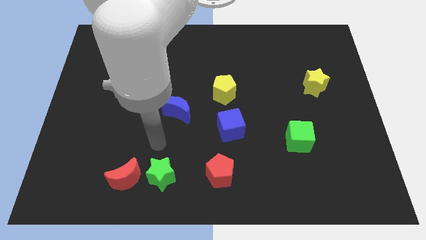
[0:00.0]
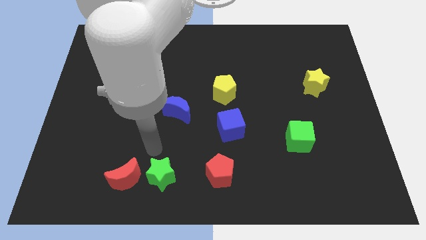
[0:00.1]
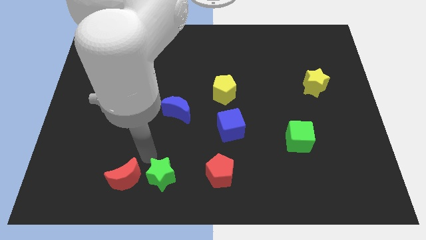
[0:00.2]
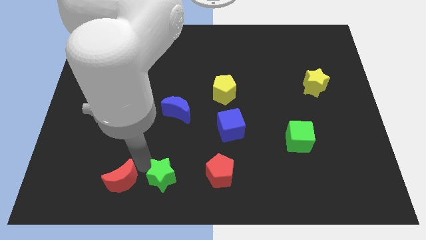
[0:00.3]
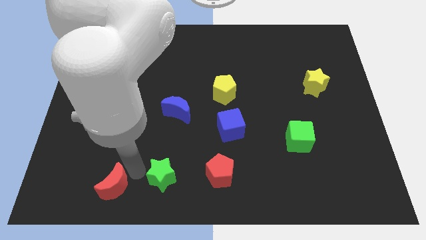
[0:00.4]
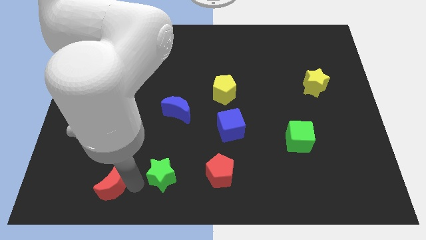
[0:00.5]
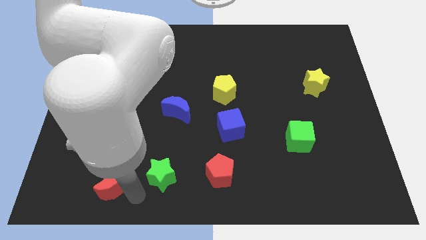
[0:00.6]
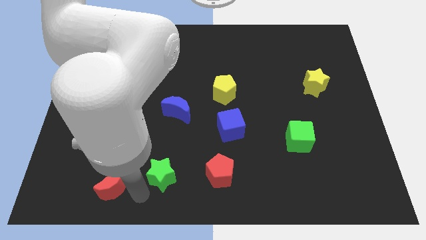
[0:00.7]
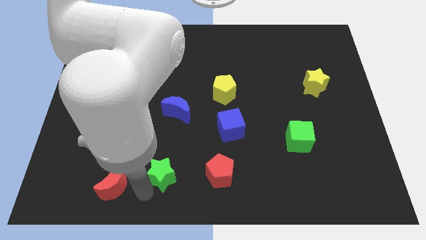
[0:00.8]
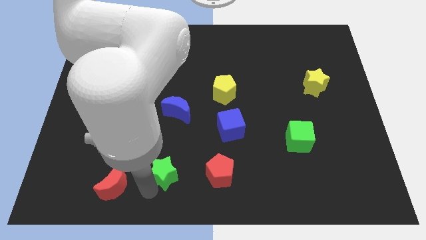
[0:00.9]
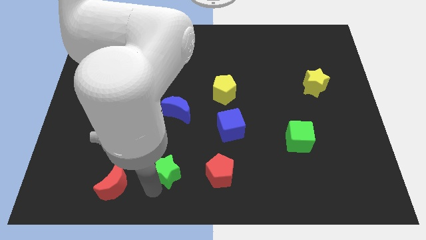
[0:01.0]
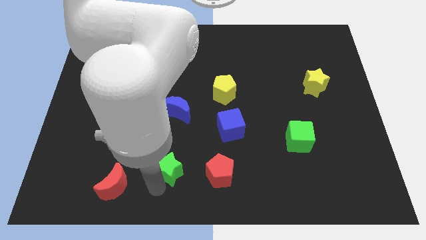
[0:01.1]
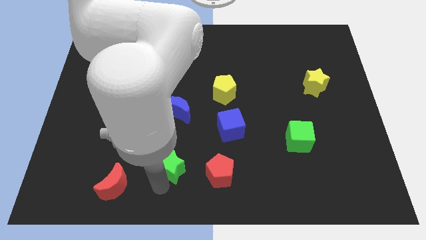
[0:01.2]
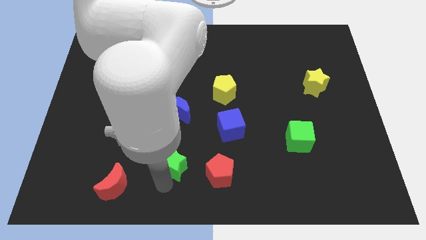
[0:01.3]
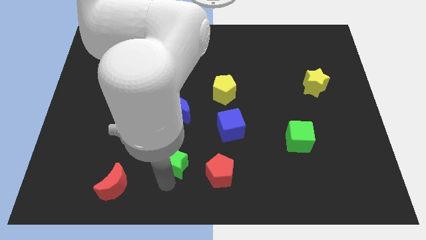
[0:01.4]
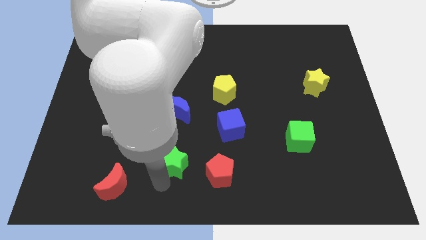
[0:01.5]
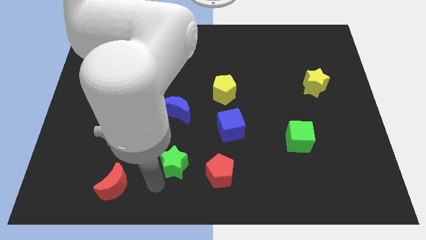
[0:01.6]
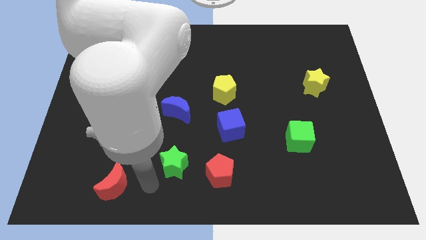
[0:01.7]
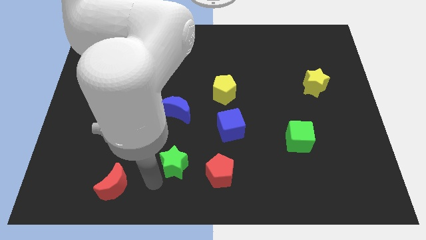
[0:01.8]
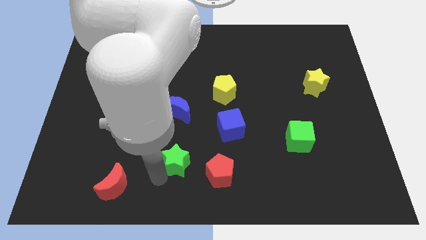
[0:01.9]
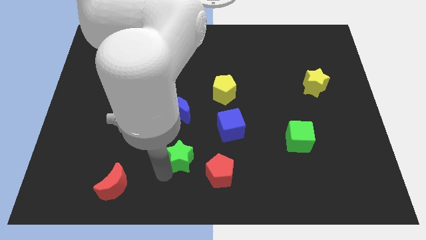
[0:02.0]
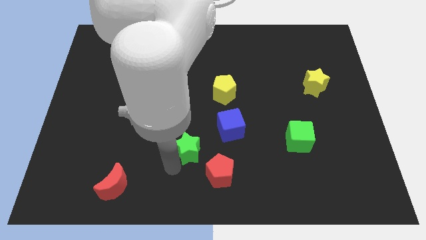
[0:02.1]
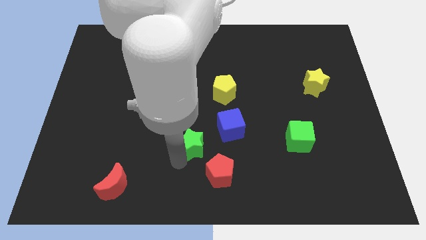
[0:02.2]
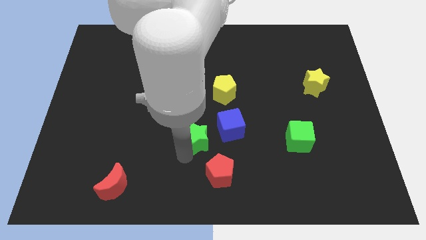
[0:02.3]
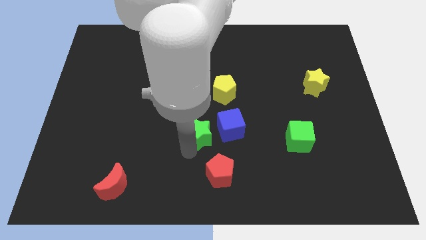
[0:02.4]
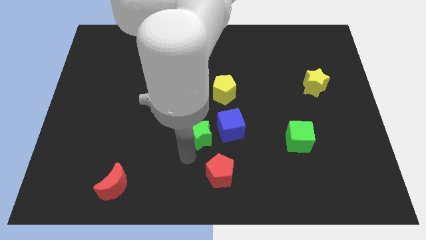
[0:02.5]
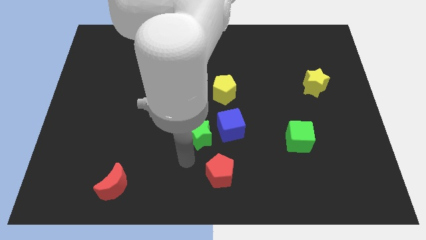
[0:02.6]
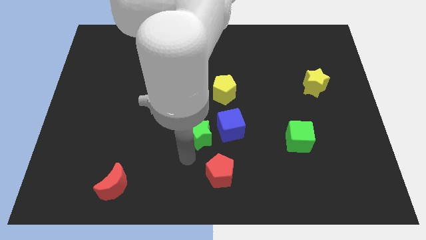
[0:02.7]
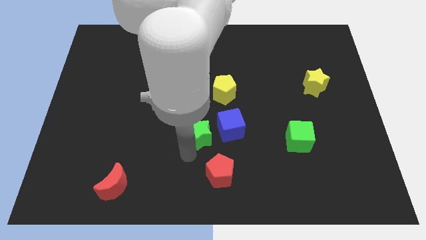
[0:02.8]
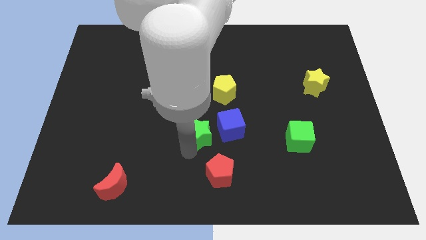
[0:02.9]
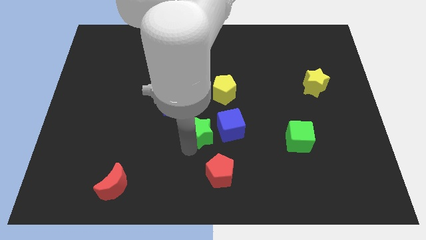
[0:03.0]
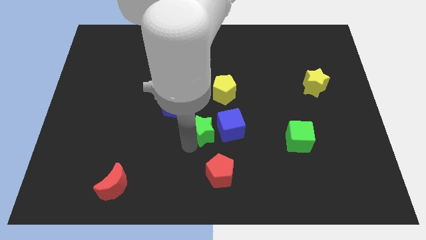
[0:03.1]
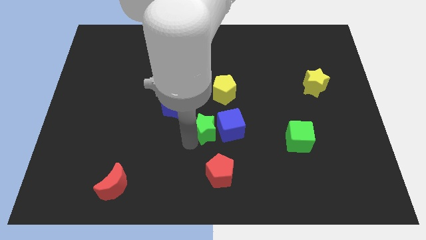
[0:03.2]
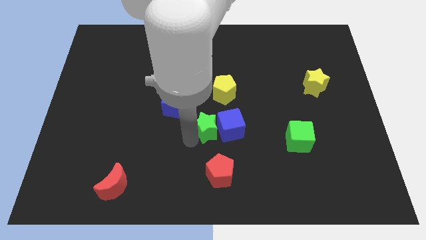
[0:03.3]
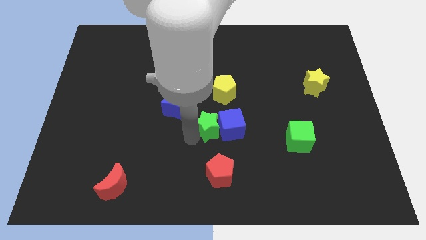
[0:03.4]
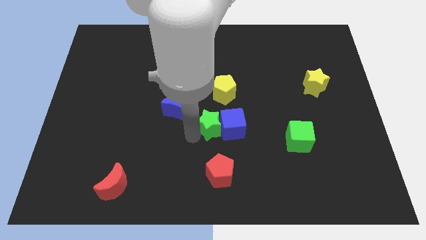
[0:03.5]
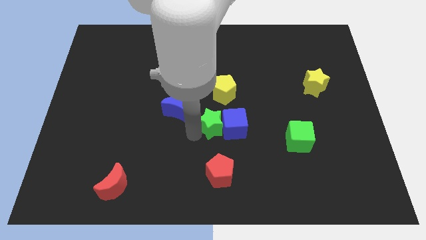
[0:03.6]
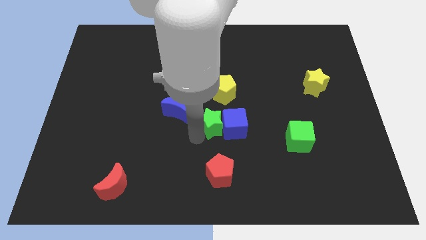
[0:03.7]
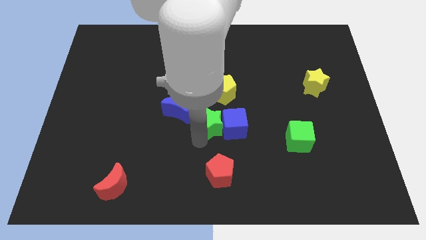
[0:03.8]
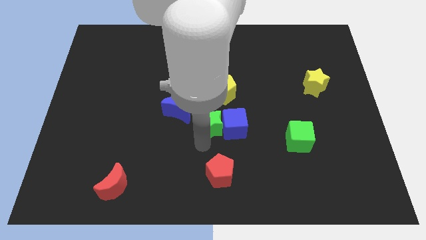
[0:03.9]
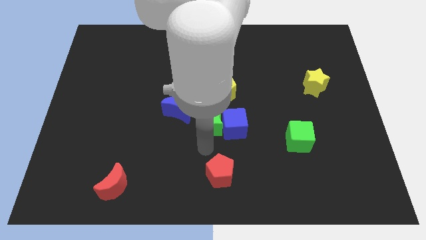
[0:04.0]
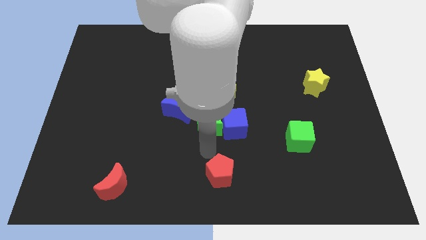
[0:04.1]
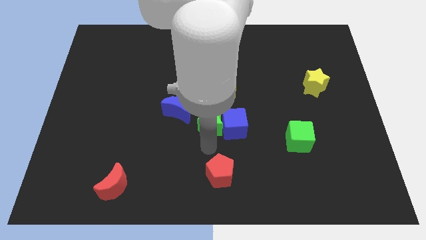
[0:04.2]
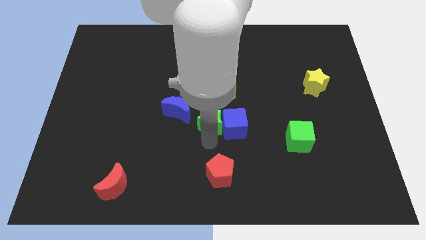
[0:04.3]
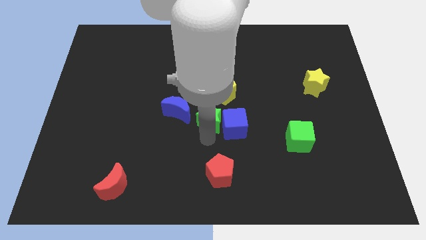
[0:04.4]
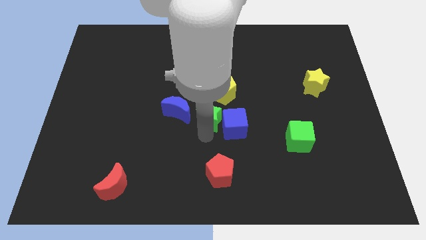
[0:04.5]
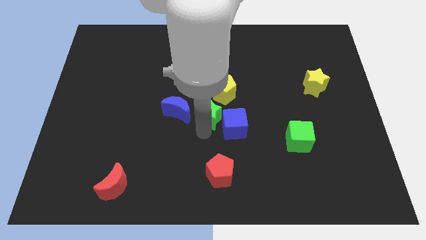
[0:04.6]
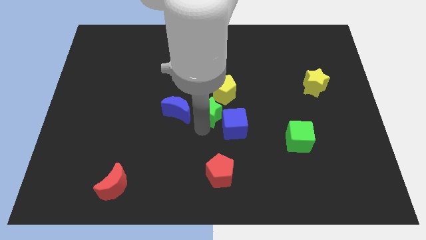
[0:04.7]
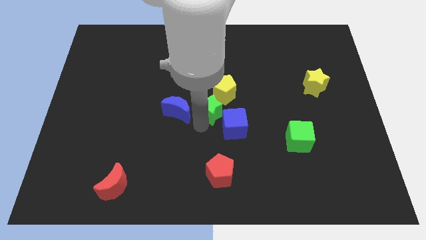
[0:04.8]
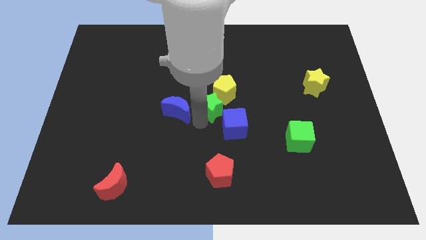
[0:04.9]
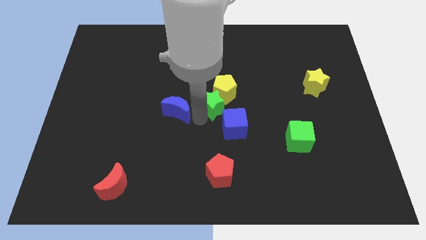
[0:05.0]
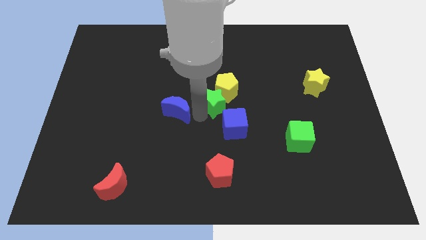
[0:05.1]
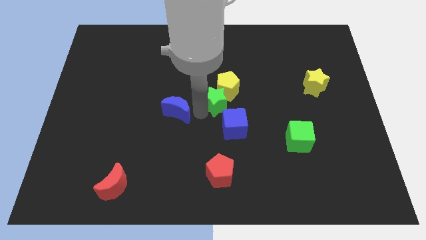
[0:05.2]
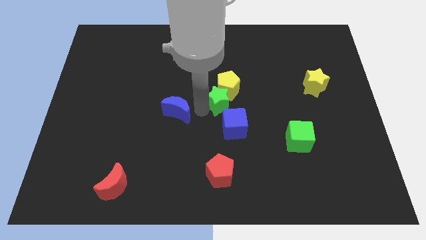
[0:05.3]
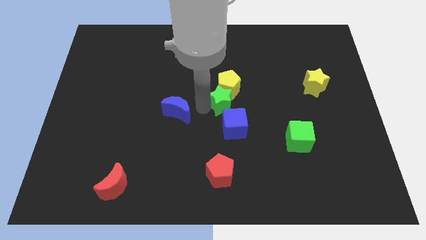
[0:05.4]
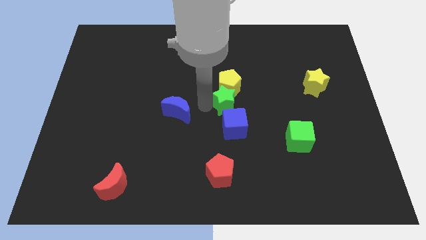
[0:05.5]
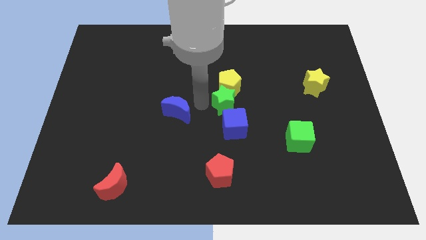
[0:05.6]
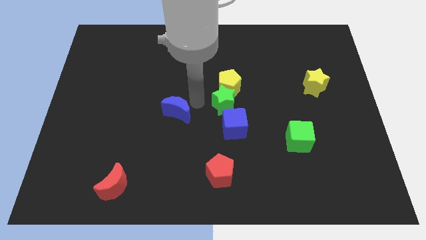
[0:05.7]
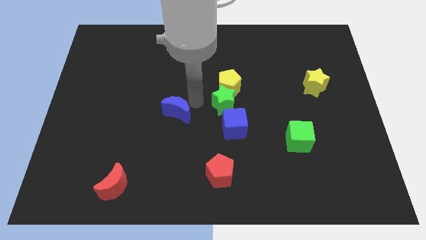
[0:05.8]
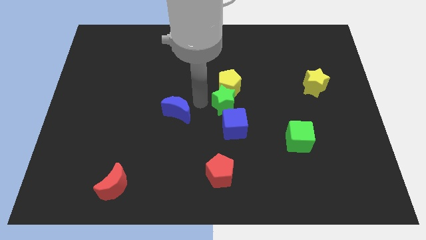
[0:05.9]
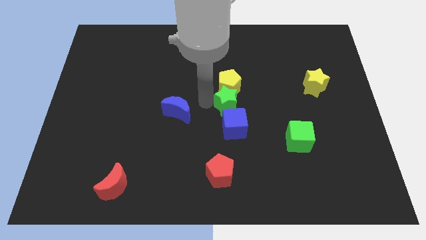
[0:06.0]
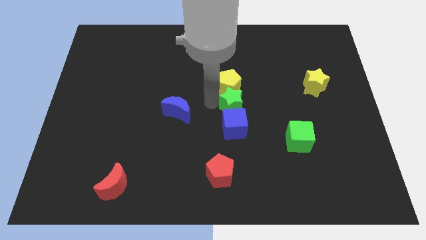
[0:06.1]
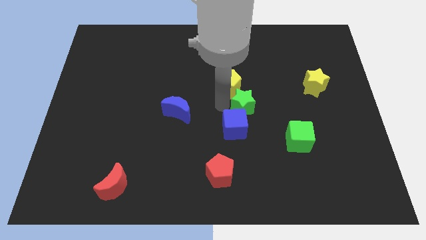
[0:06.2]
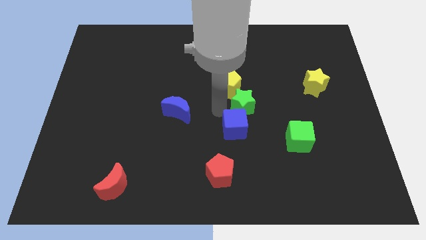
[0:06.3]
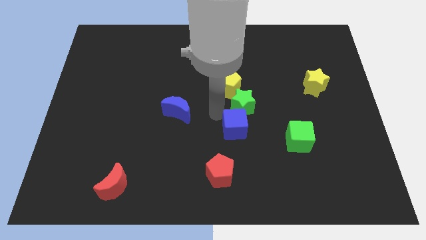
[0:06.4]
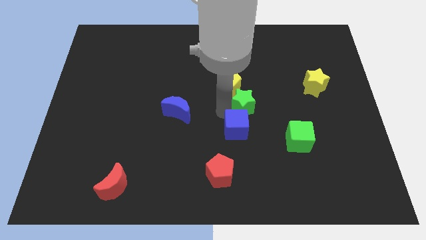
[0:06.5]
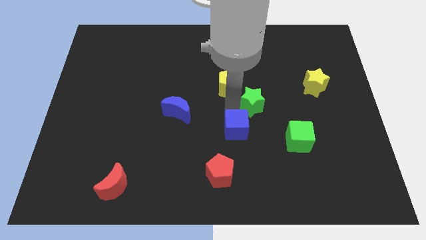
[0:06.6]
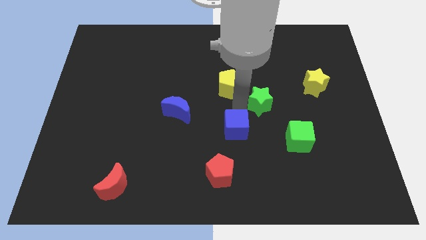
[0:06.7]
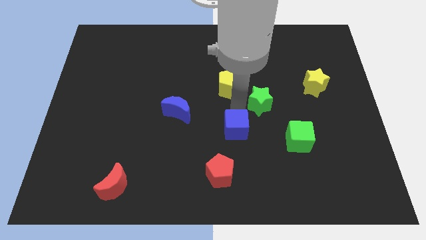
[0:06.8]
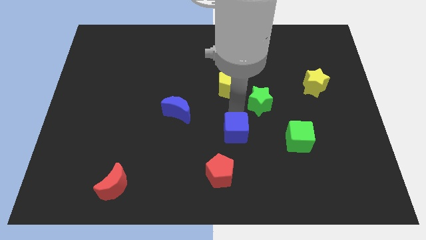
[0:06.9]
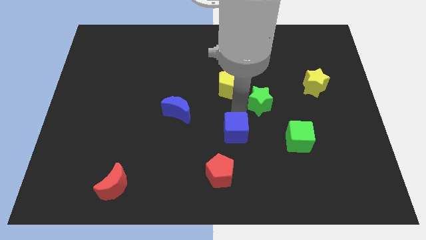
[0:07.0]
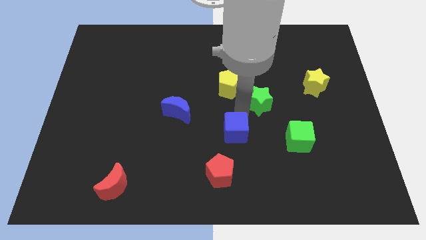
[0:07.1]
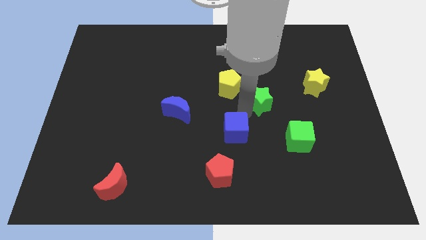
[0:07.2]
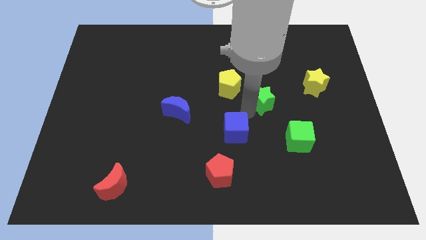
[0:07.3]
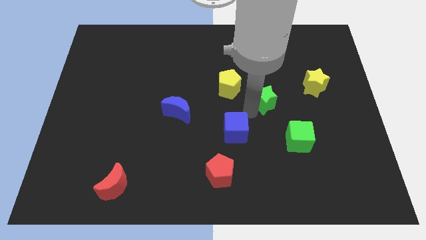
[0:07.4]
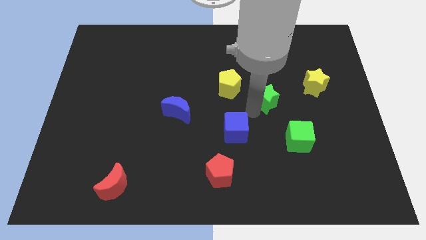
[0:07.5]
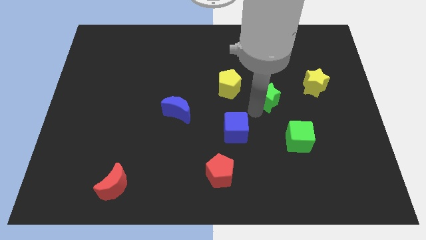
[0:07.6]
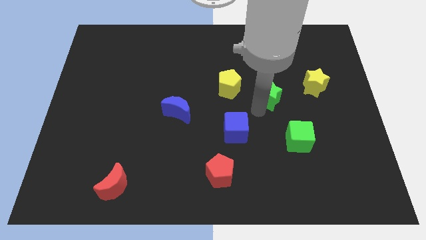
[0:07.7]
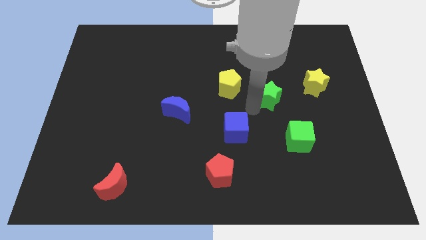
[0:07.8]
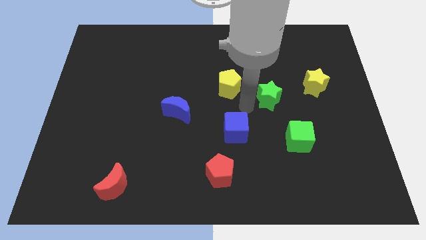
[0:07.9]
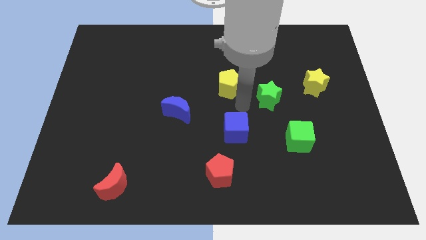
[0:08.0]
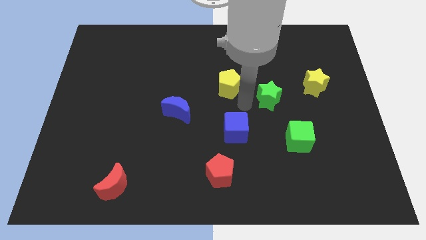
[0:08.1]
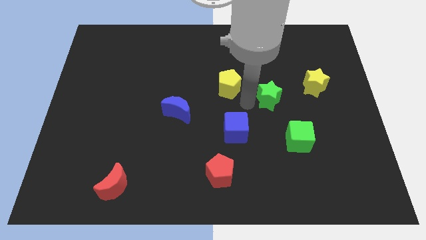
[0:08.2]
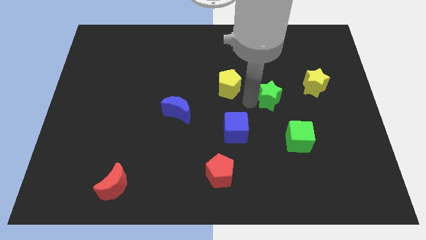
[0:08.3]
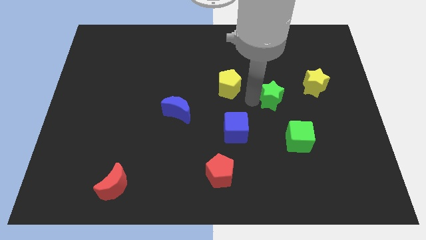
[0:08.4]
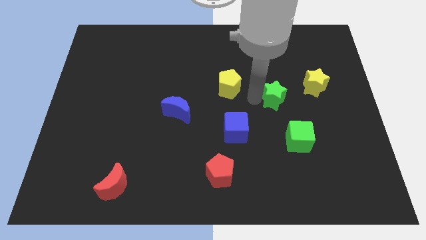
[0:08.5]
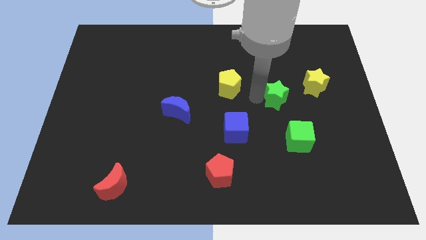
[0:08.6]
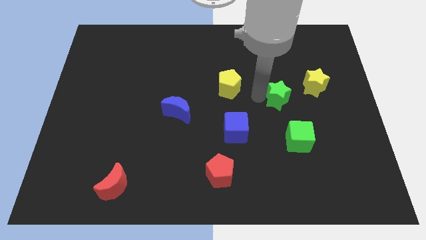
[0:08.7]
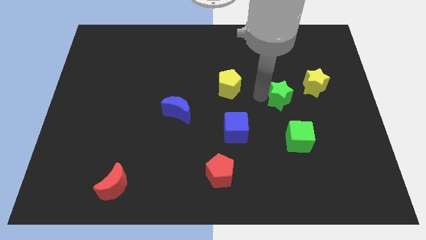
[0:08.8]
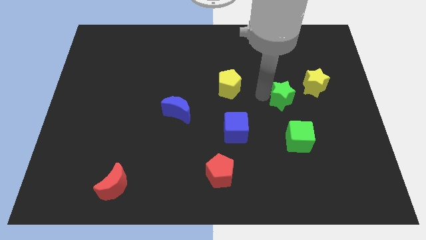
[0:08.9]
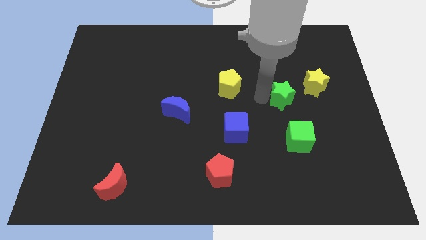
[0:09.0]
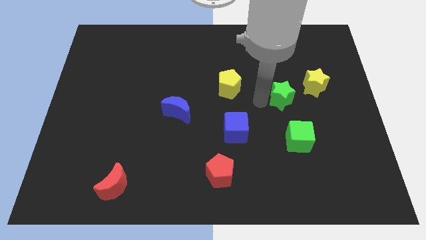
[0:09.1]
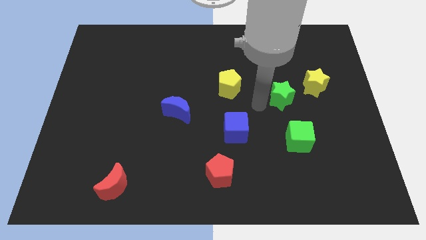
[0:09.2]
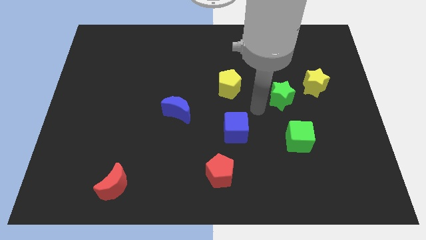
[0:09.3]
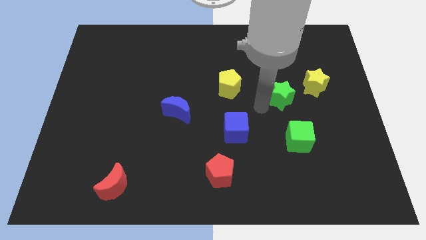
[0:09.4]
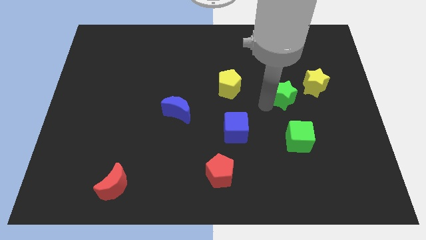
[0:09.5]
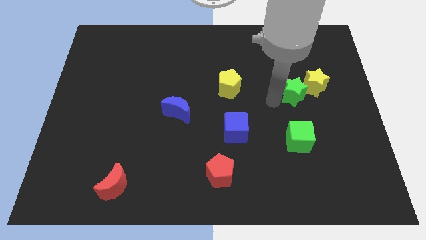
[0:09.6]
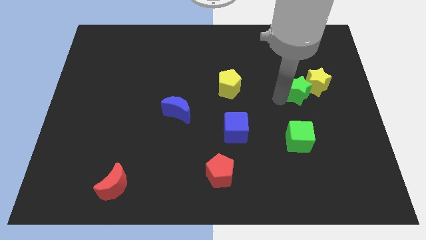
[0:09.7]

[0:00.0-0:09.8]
put the green star towards the yellow star
